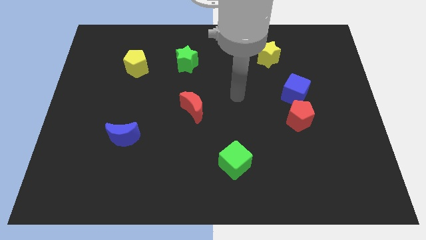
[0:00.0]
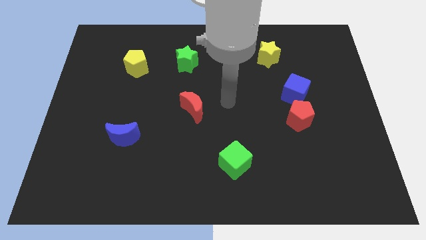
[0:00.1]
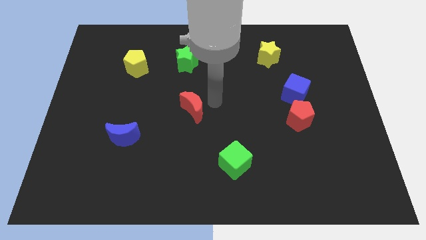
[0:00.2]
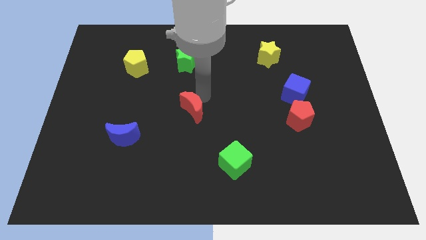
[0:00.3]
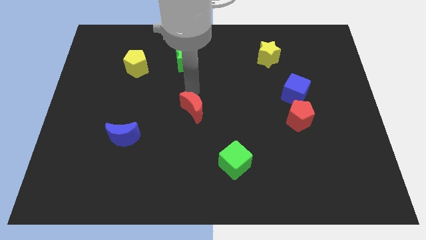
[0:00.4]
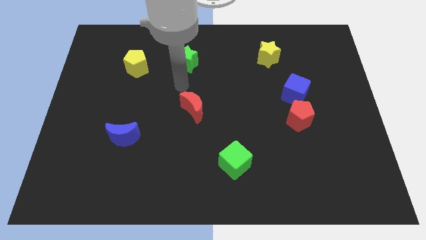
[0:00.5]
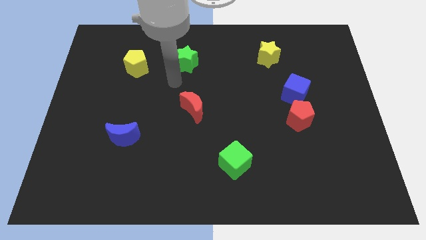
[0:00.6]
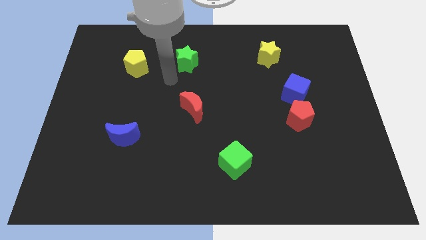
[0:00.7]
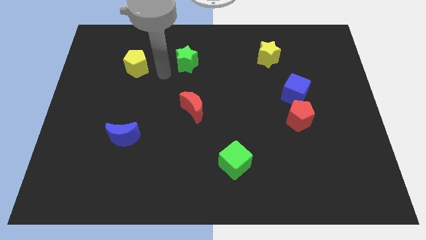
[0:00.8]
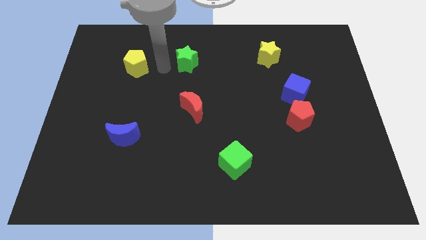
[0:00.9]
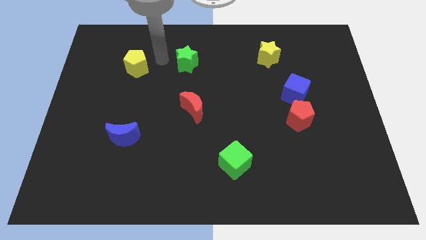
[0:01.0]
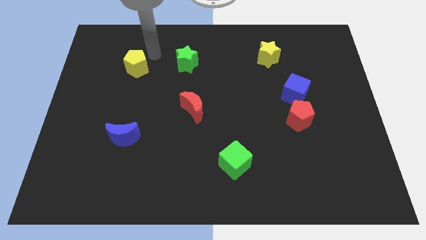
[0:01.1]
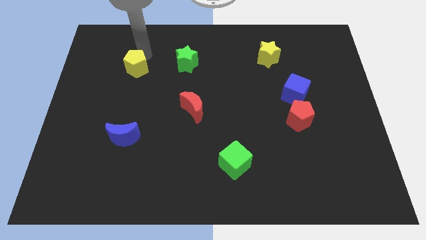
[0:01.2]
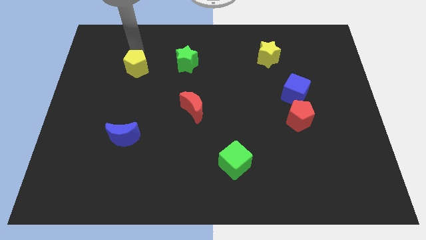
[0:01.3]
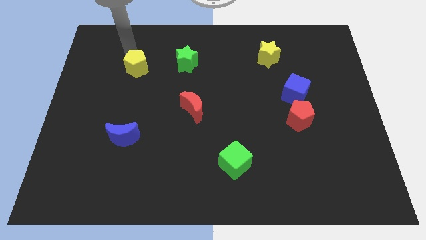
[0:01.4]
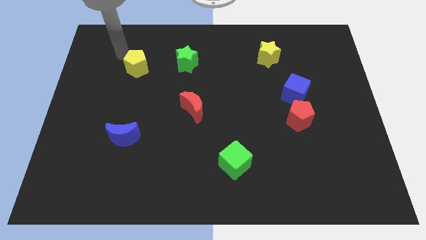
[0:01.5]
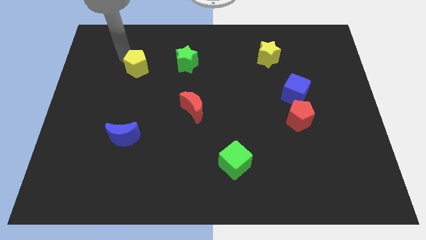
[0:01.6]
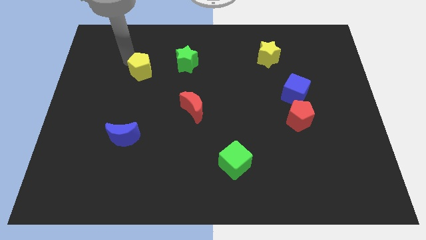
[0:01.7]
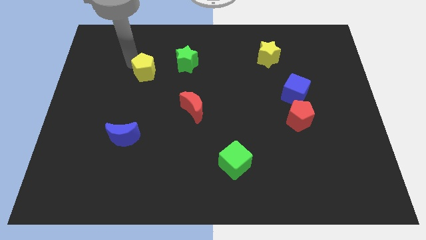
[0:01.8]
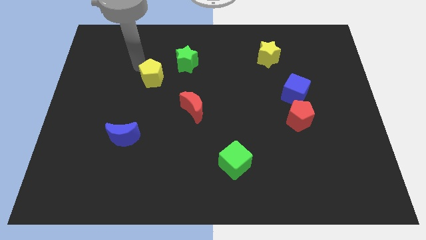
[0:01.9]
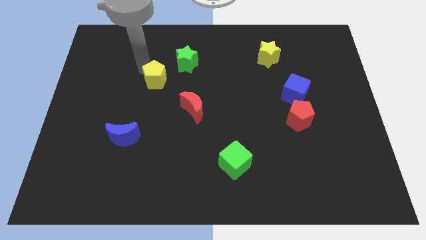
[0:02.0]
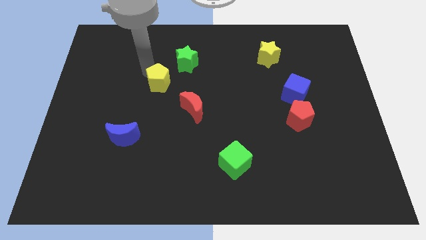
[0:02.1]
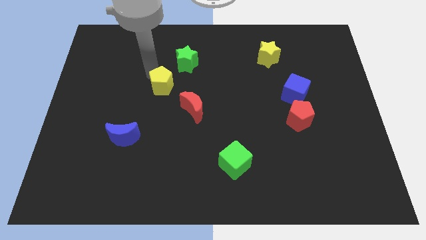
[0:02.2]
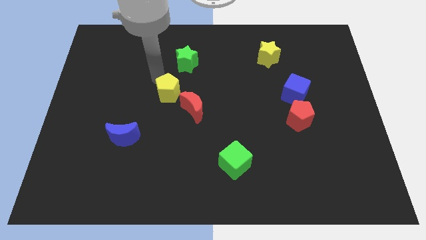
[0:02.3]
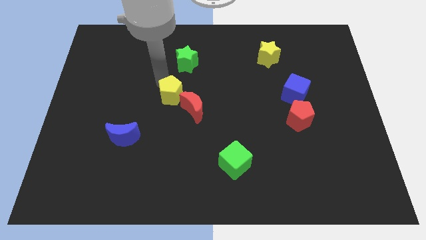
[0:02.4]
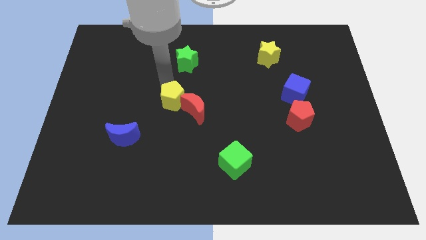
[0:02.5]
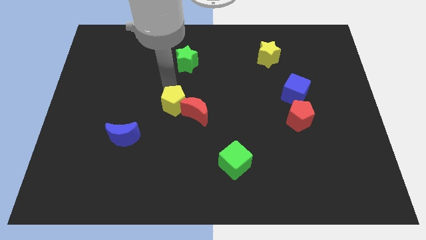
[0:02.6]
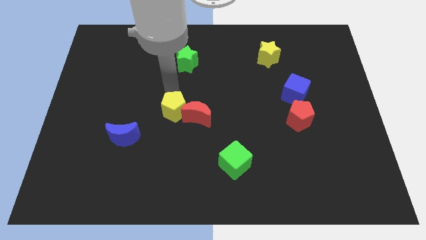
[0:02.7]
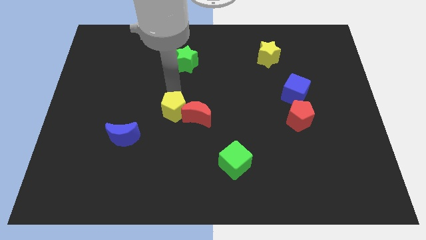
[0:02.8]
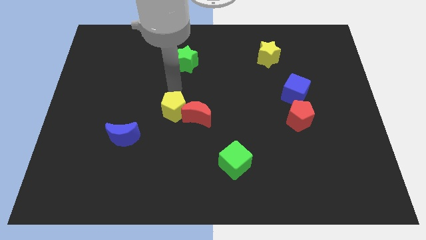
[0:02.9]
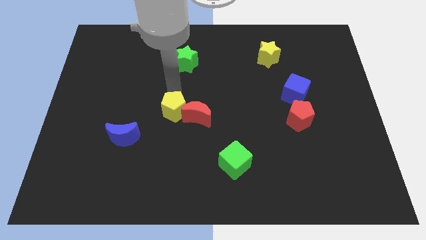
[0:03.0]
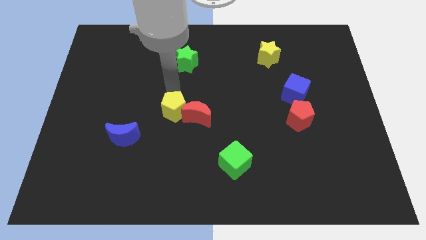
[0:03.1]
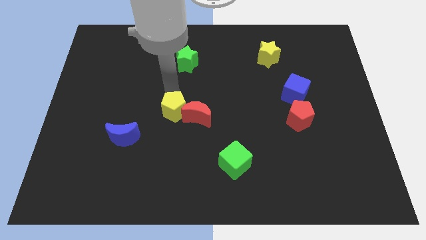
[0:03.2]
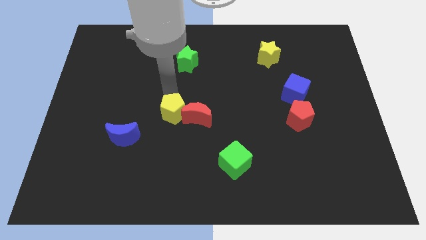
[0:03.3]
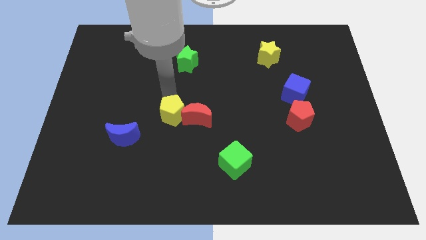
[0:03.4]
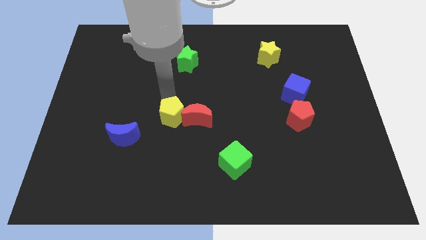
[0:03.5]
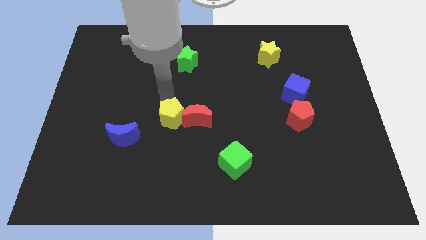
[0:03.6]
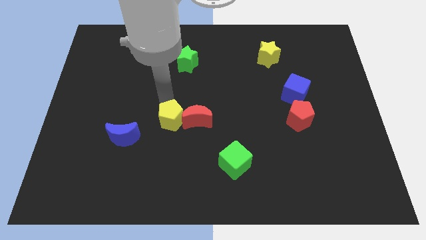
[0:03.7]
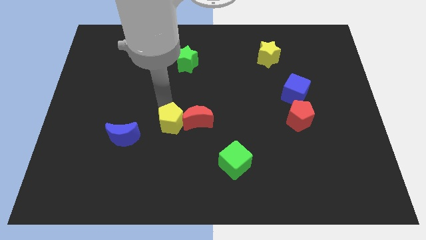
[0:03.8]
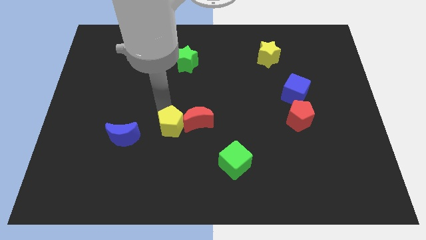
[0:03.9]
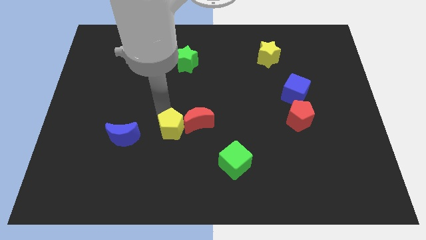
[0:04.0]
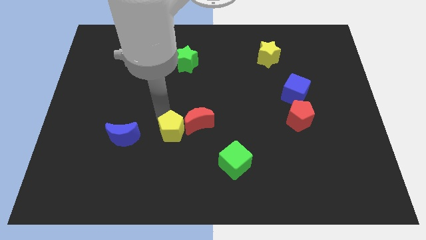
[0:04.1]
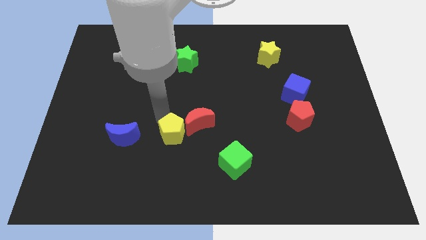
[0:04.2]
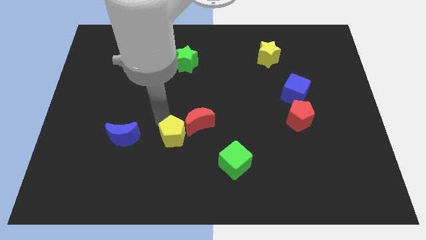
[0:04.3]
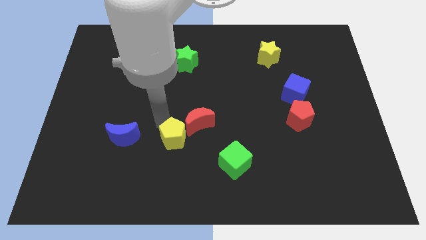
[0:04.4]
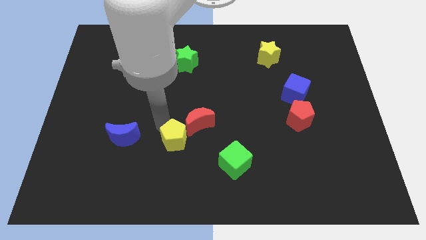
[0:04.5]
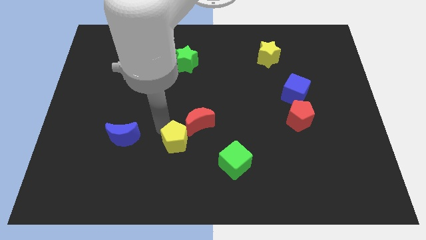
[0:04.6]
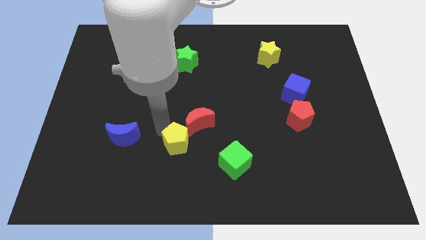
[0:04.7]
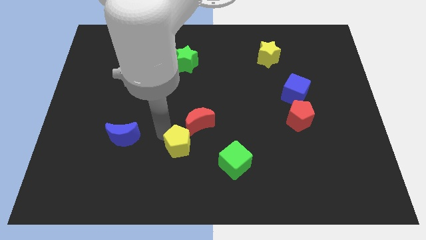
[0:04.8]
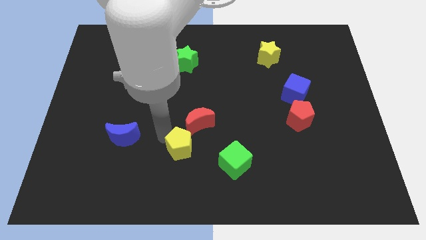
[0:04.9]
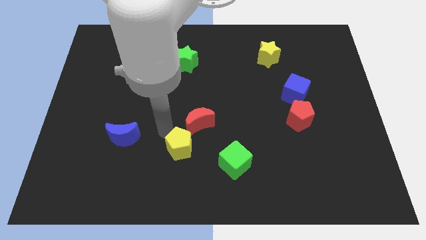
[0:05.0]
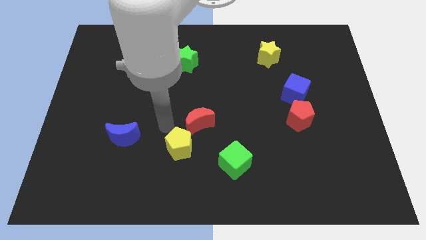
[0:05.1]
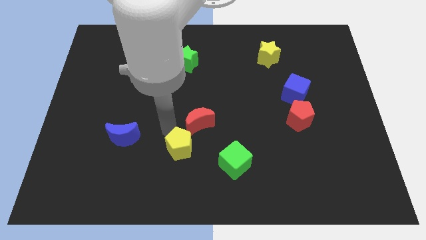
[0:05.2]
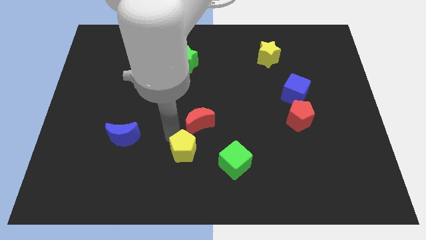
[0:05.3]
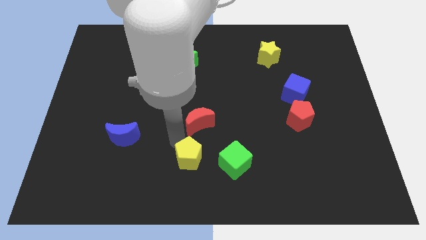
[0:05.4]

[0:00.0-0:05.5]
put the yellow pentagon to the bottom
